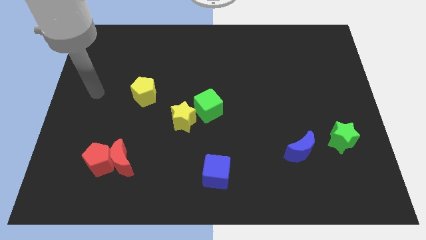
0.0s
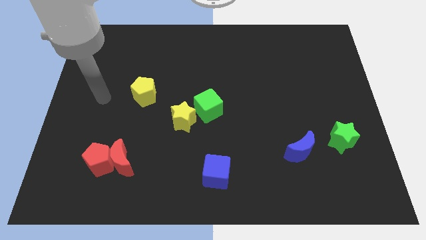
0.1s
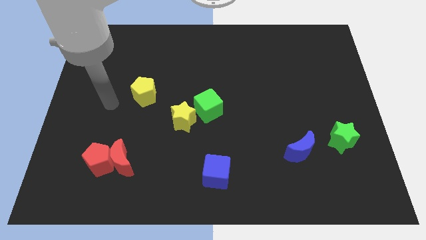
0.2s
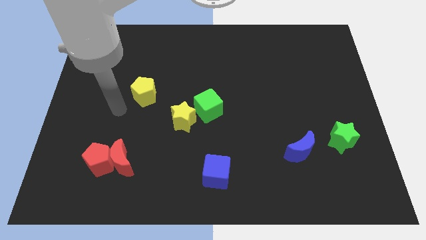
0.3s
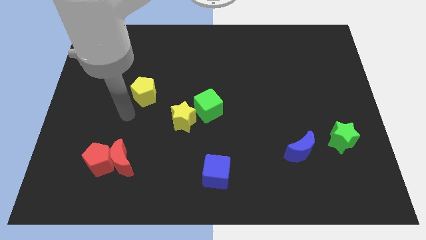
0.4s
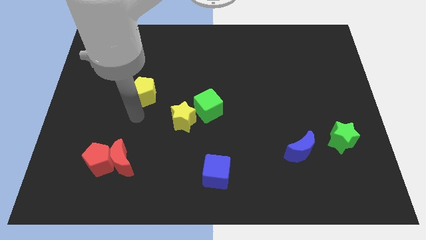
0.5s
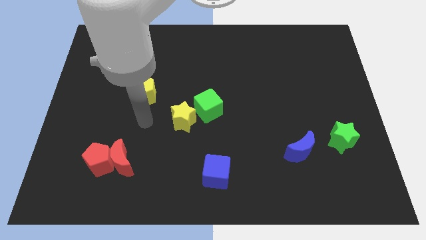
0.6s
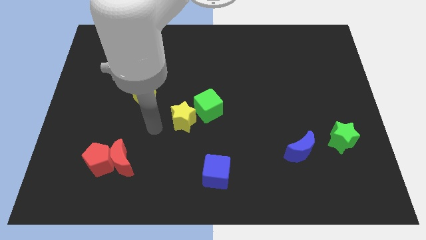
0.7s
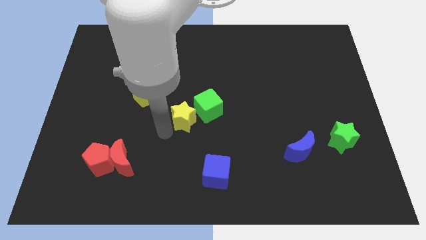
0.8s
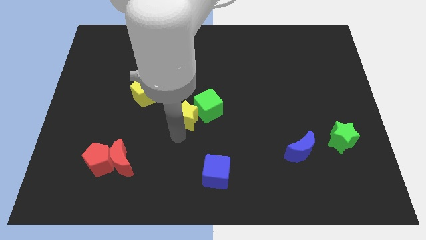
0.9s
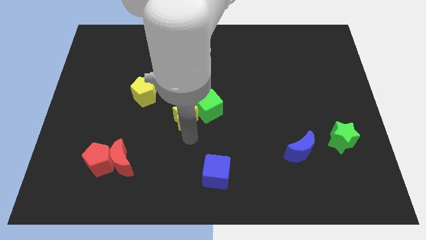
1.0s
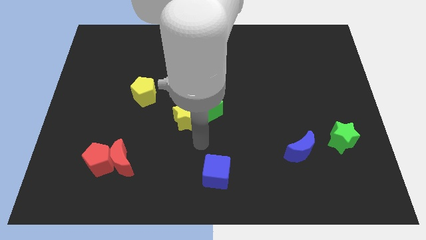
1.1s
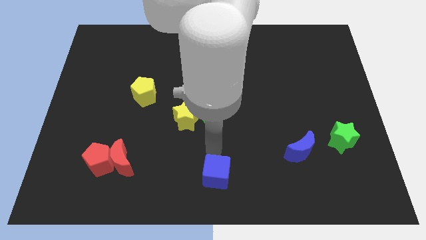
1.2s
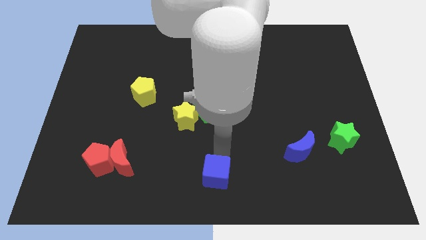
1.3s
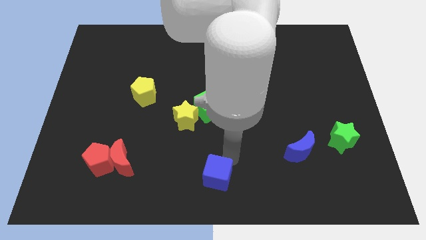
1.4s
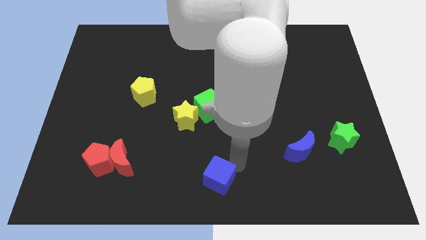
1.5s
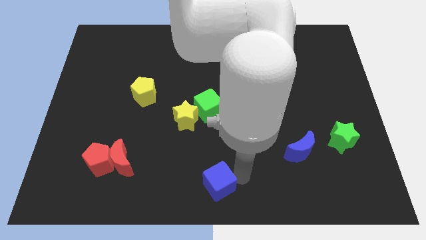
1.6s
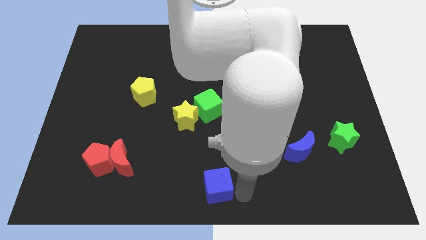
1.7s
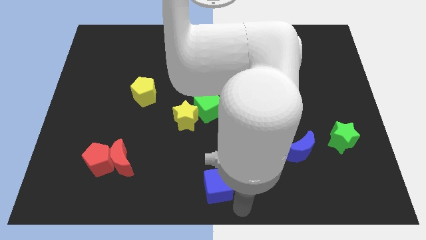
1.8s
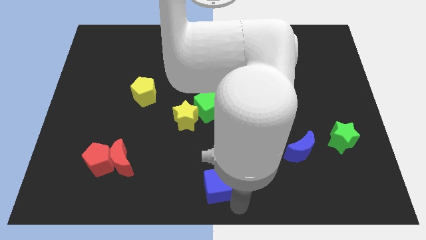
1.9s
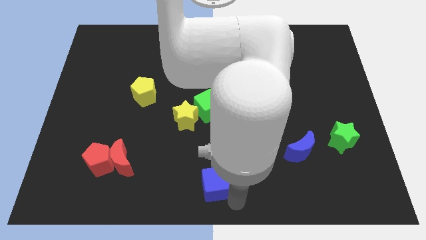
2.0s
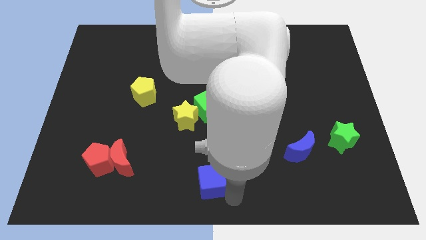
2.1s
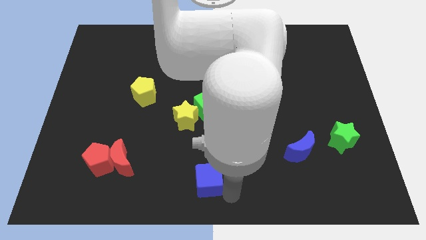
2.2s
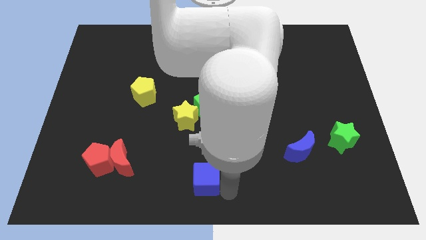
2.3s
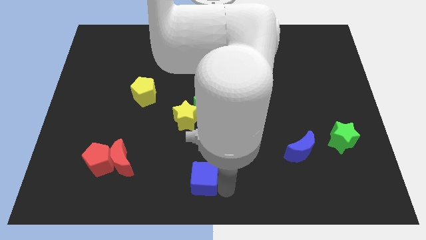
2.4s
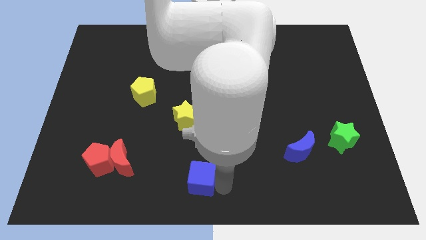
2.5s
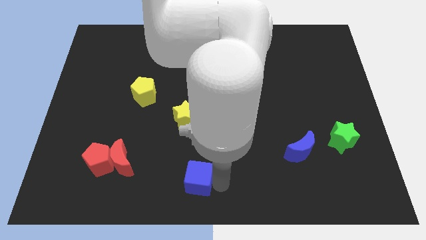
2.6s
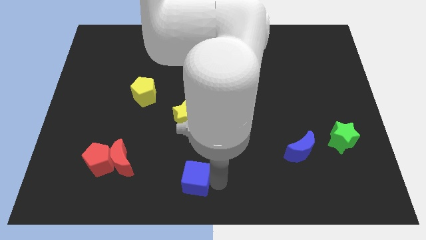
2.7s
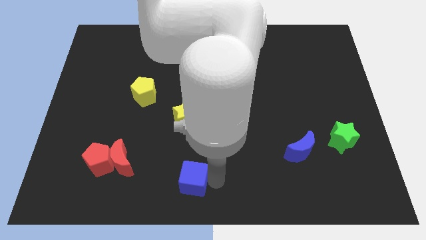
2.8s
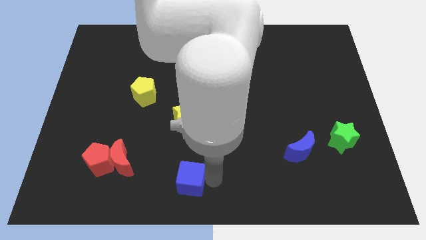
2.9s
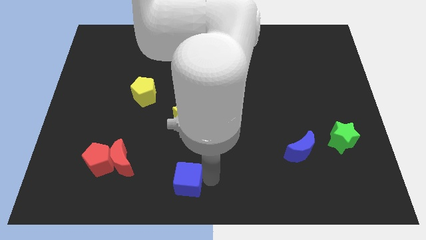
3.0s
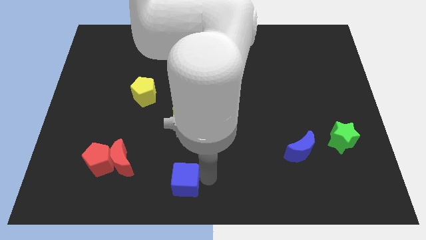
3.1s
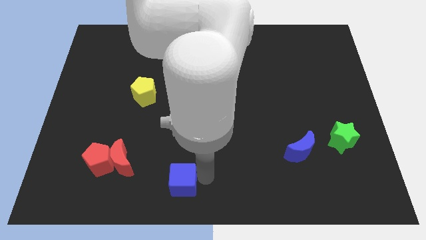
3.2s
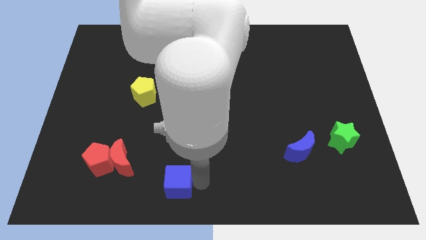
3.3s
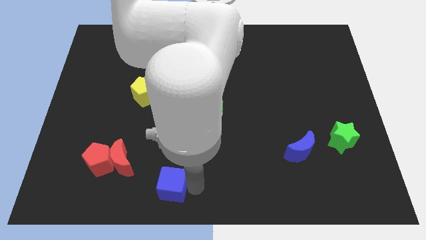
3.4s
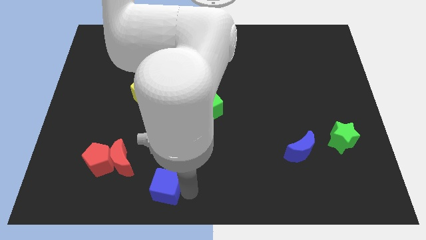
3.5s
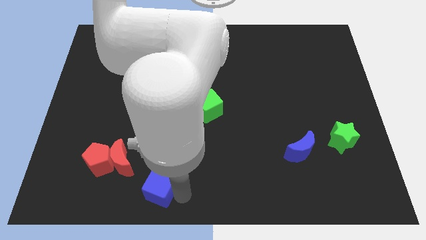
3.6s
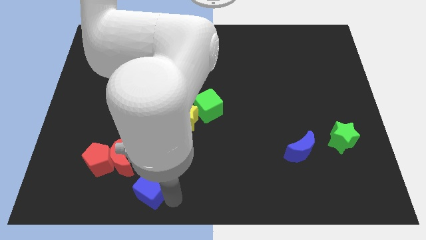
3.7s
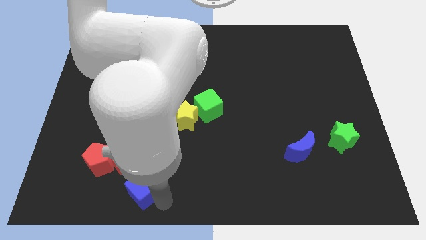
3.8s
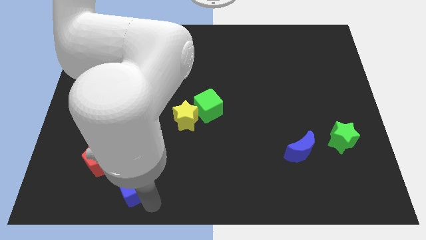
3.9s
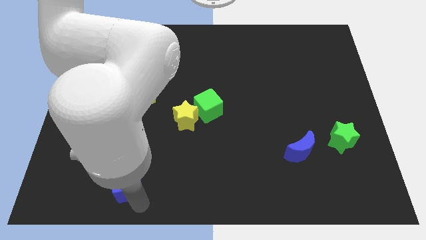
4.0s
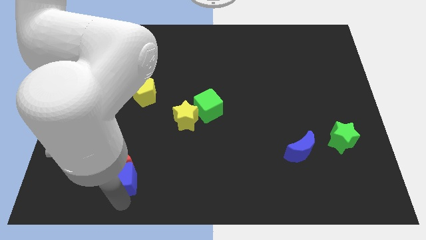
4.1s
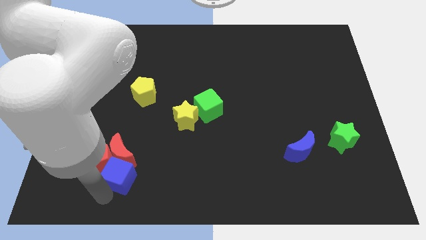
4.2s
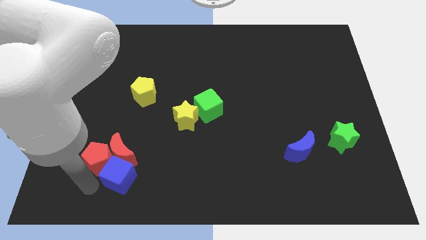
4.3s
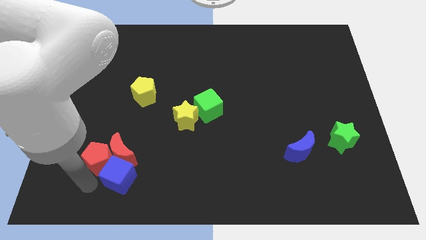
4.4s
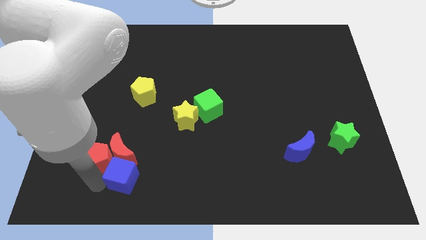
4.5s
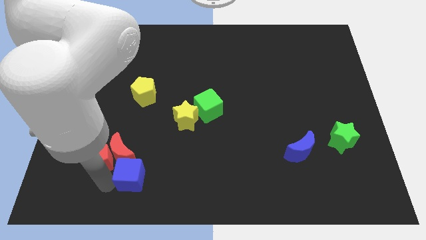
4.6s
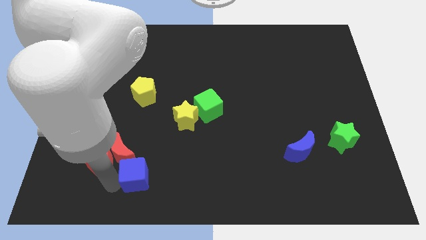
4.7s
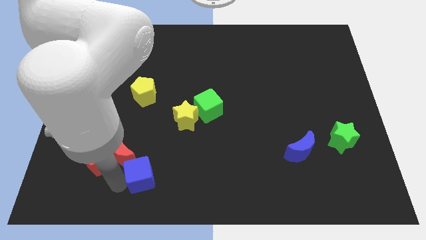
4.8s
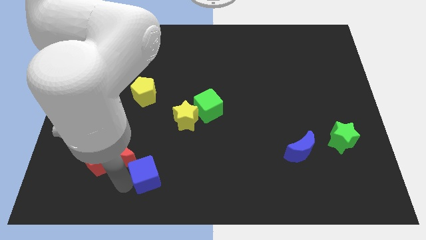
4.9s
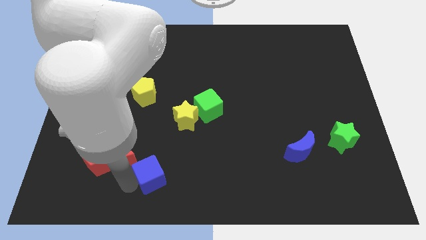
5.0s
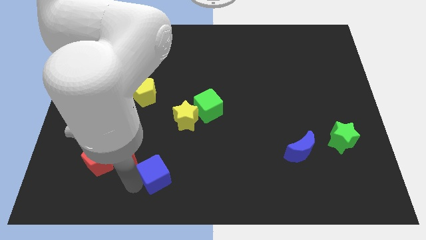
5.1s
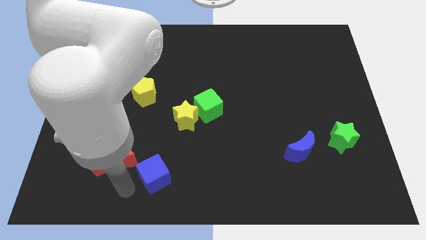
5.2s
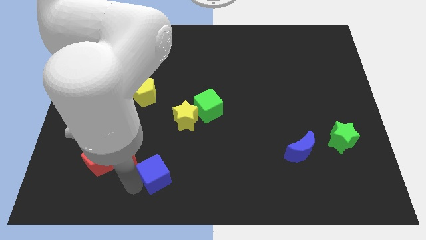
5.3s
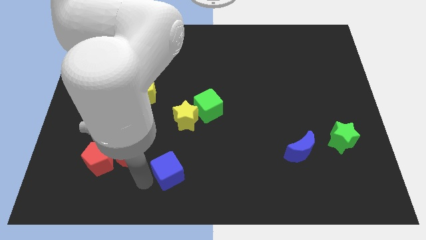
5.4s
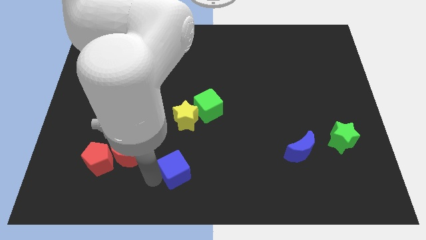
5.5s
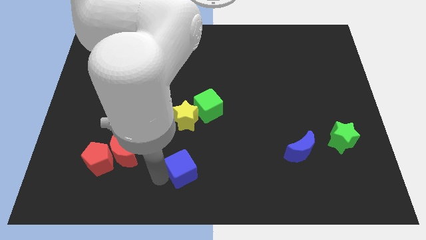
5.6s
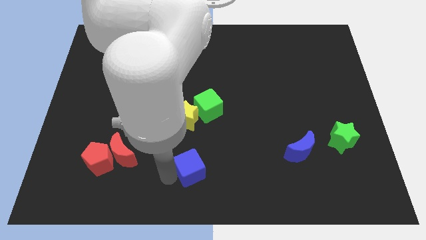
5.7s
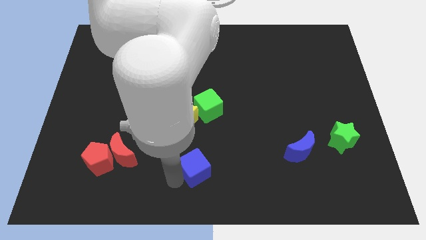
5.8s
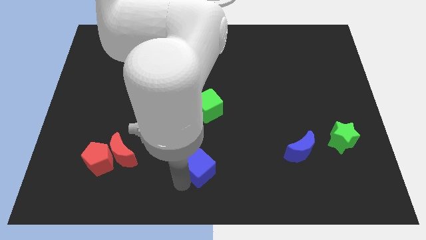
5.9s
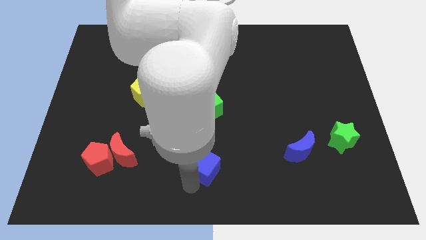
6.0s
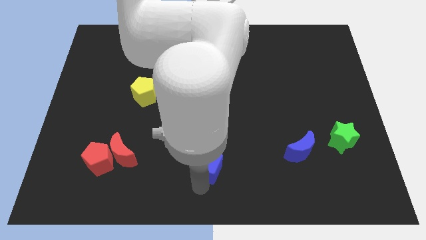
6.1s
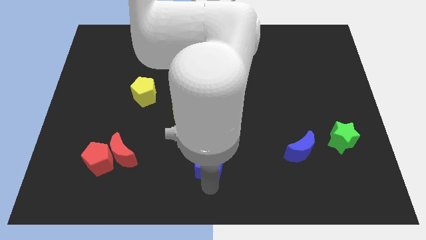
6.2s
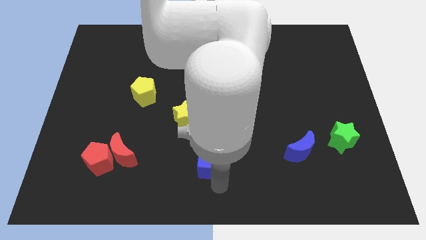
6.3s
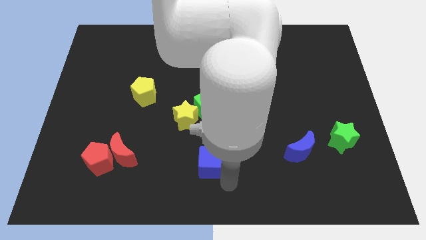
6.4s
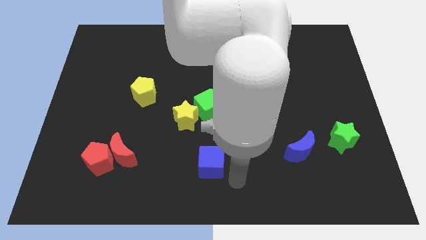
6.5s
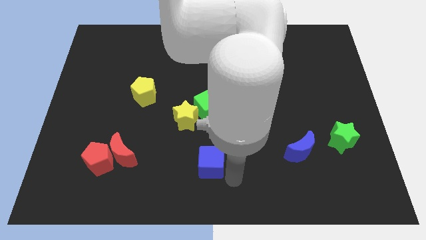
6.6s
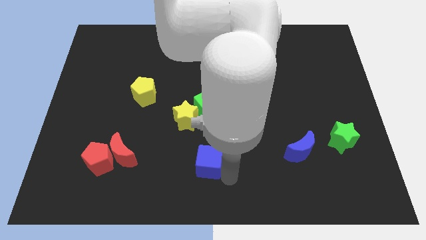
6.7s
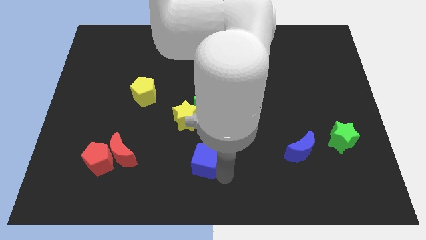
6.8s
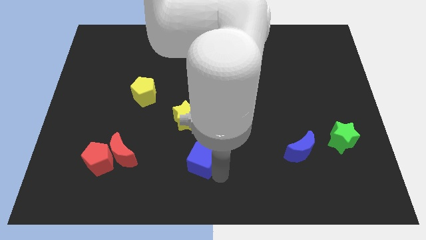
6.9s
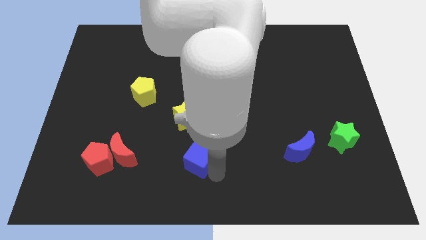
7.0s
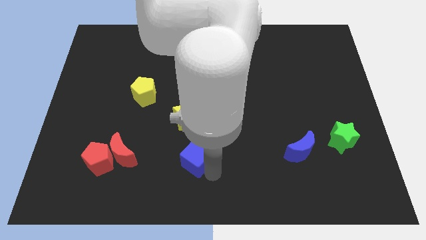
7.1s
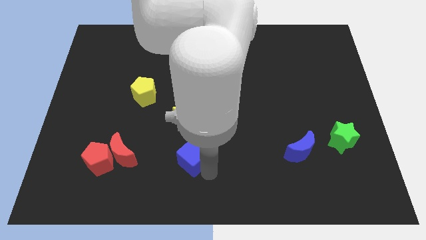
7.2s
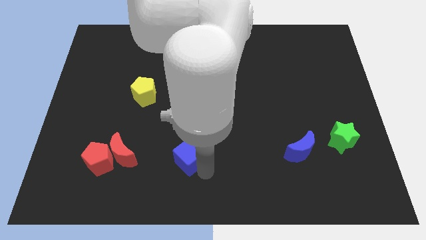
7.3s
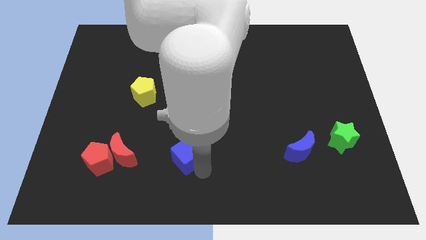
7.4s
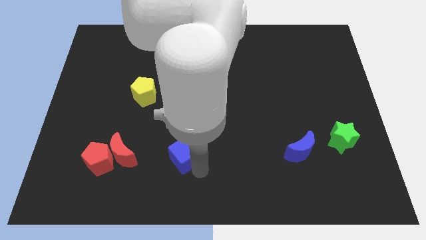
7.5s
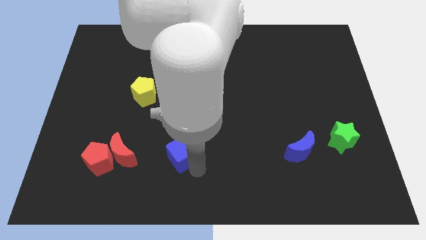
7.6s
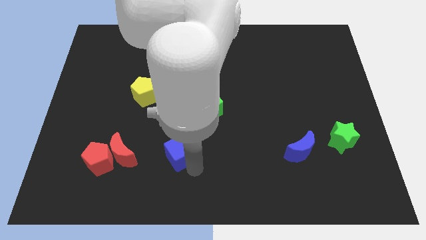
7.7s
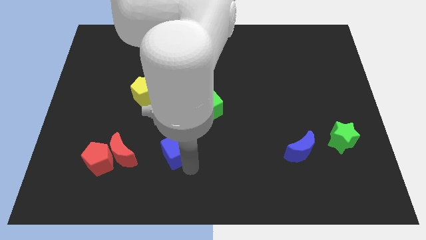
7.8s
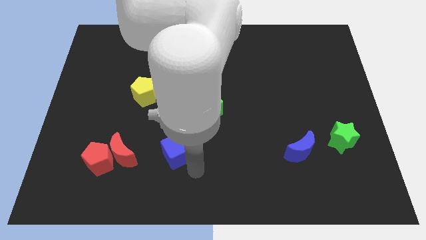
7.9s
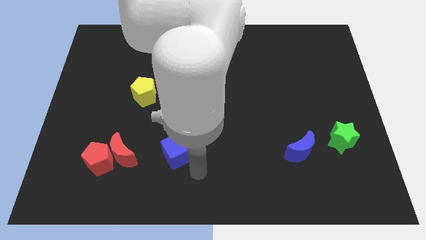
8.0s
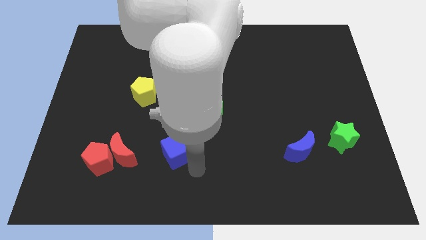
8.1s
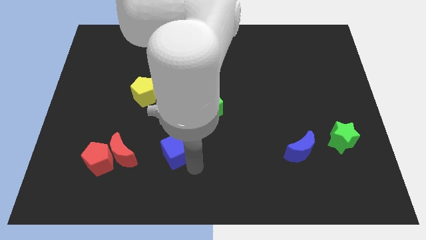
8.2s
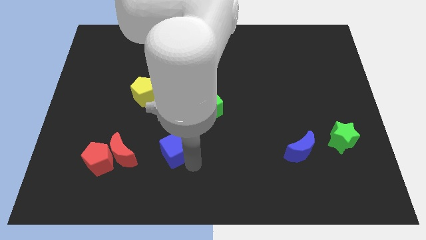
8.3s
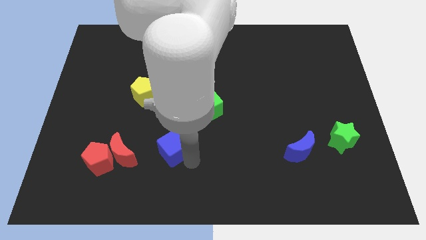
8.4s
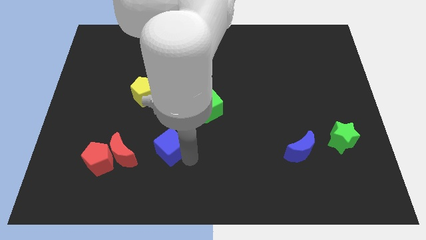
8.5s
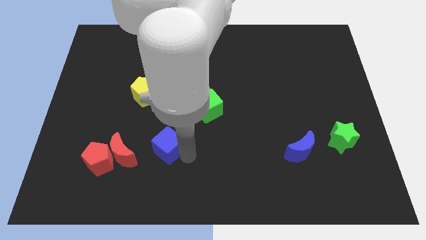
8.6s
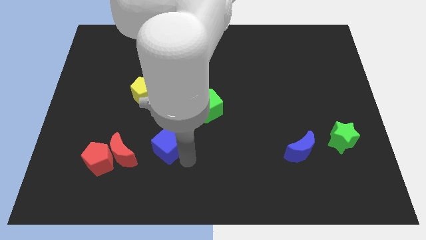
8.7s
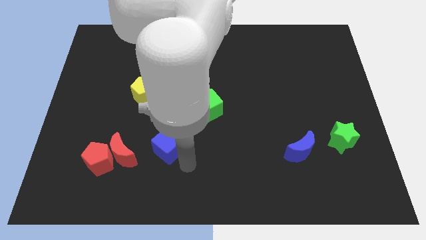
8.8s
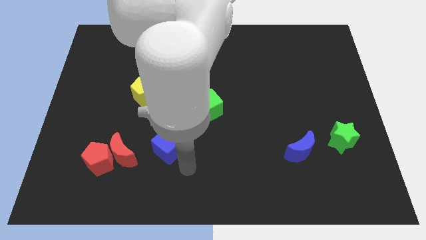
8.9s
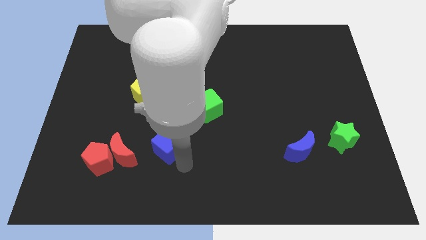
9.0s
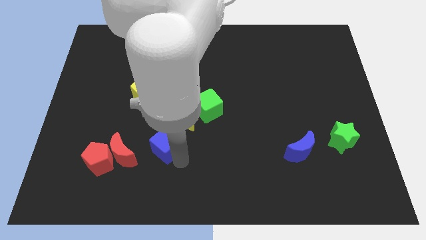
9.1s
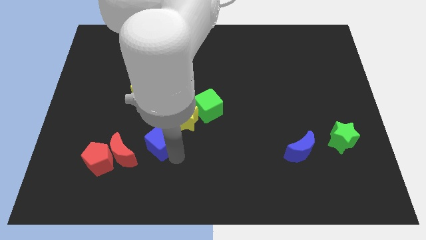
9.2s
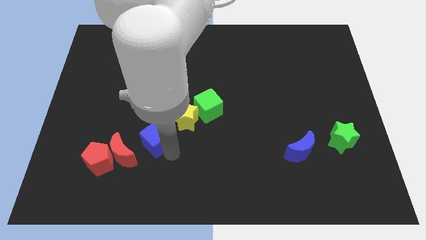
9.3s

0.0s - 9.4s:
move the blue cube to the bottom side of the yellow pentagon
